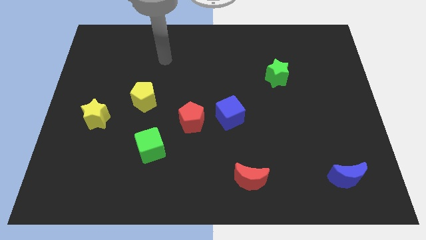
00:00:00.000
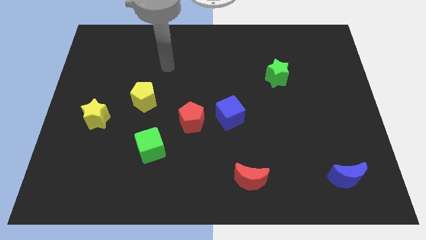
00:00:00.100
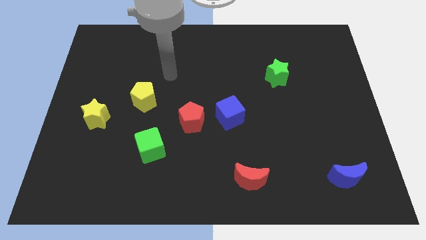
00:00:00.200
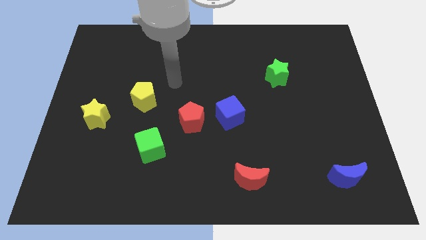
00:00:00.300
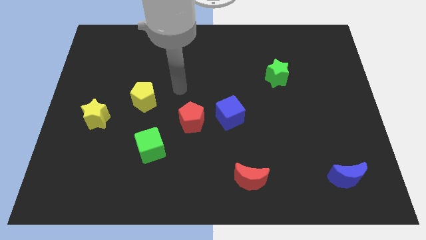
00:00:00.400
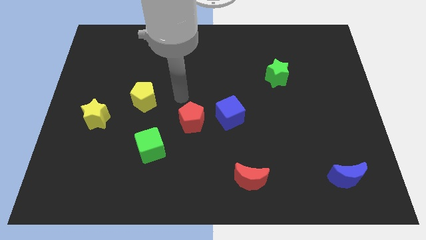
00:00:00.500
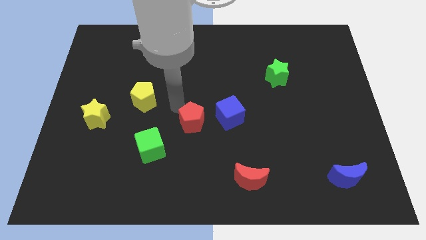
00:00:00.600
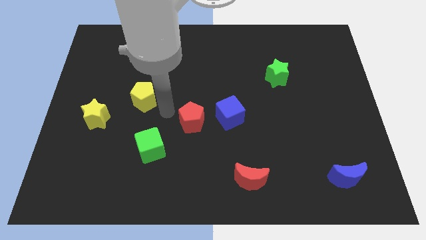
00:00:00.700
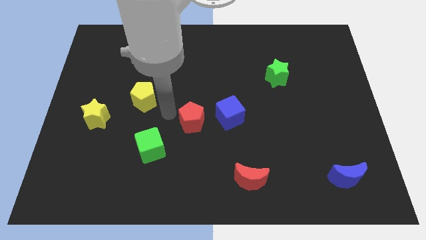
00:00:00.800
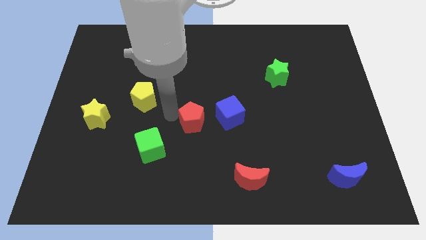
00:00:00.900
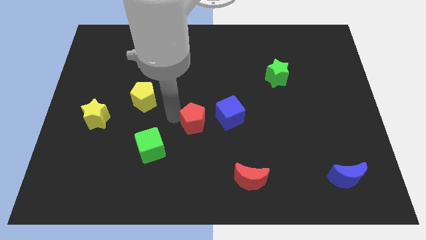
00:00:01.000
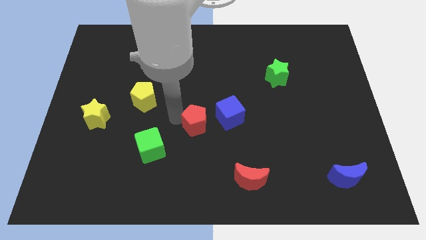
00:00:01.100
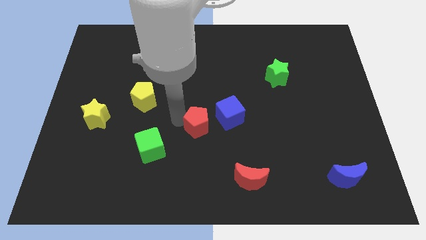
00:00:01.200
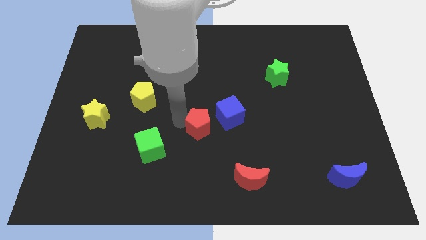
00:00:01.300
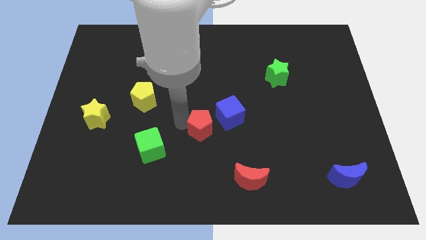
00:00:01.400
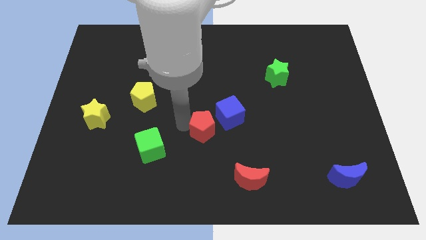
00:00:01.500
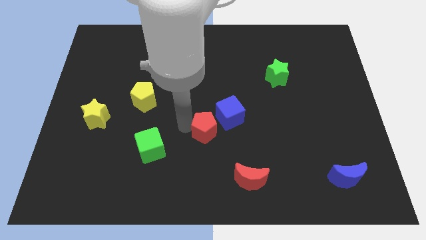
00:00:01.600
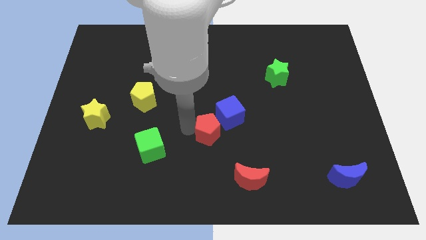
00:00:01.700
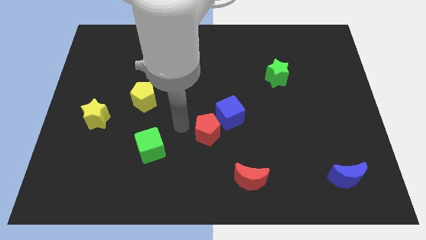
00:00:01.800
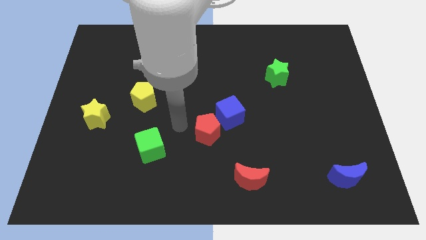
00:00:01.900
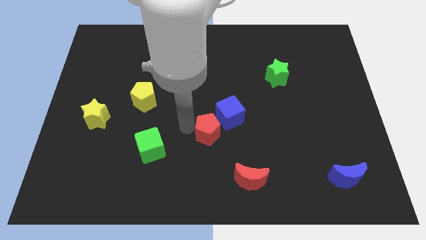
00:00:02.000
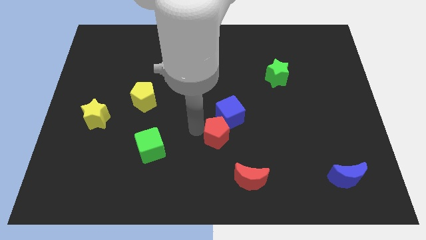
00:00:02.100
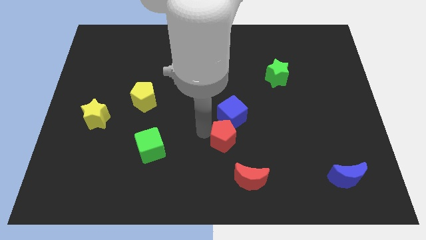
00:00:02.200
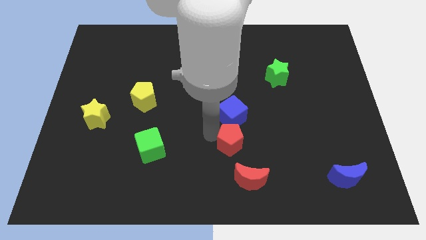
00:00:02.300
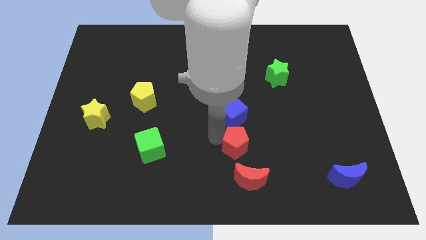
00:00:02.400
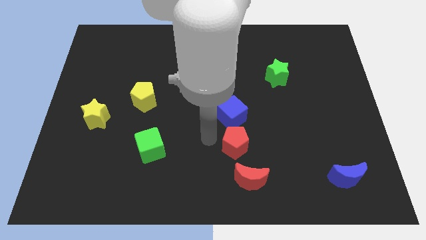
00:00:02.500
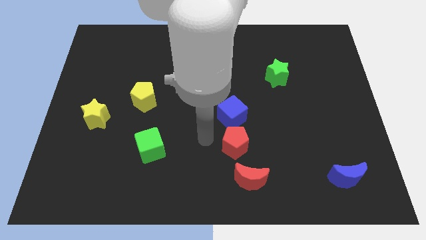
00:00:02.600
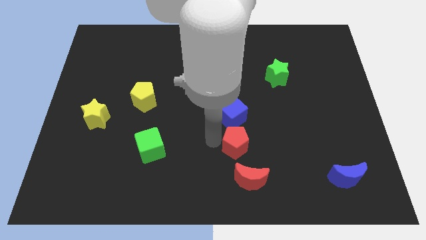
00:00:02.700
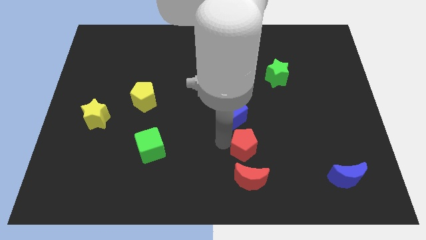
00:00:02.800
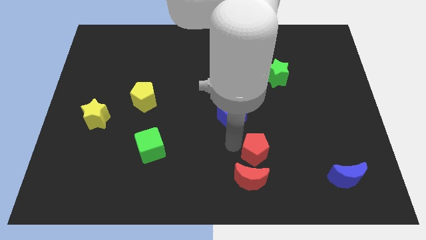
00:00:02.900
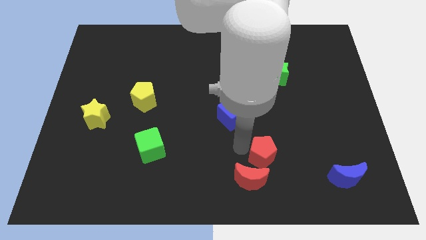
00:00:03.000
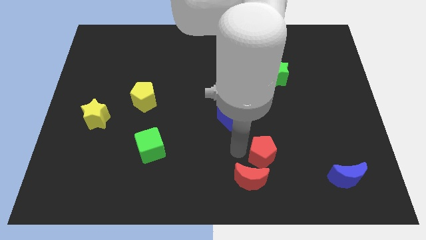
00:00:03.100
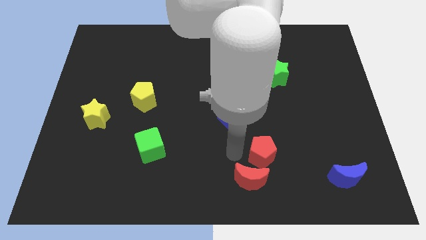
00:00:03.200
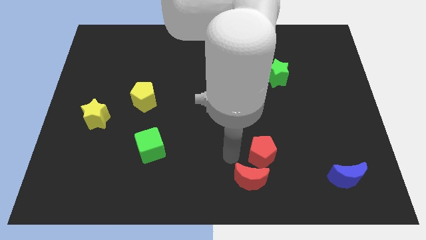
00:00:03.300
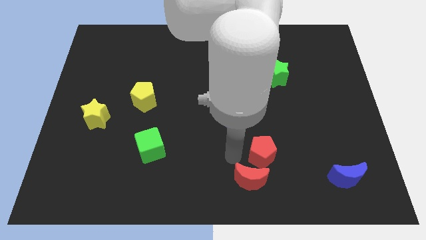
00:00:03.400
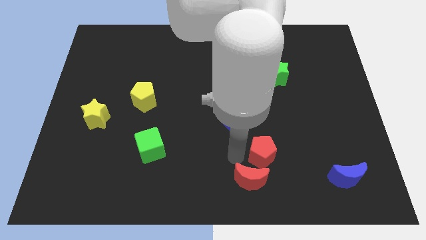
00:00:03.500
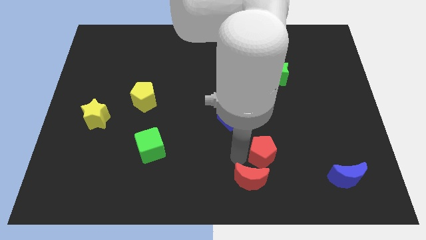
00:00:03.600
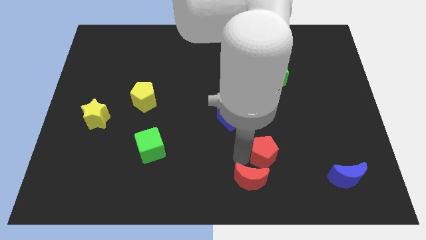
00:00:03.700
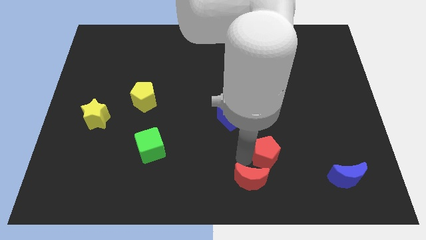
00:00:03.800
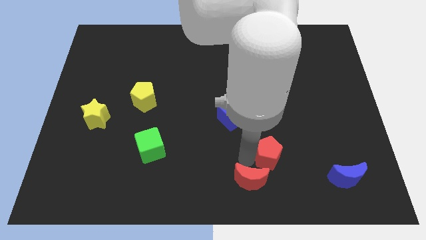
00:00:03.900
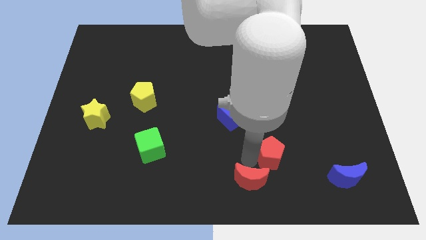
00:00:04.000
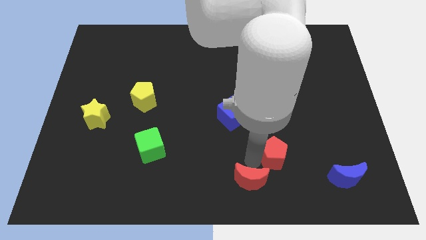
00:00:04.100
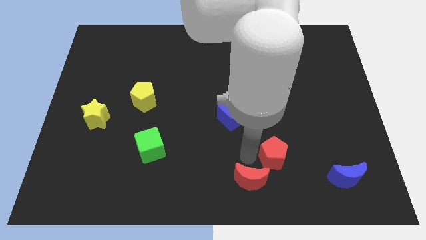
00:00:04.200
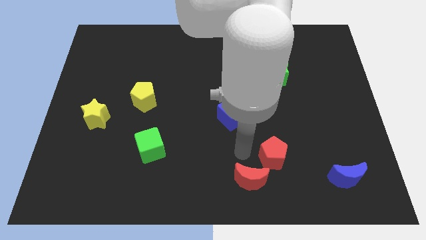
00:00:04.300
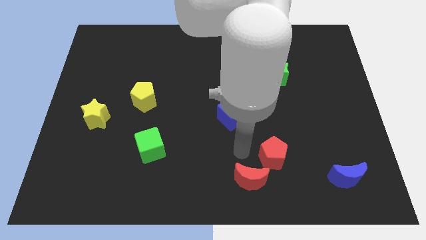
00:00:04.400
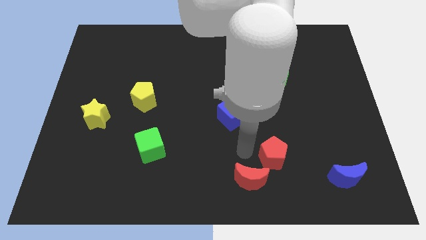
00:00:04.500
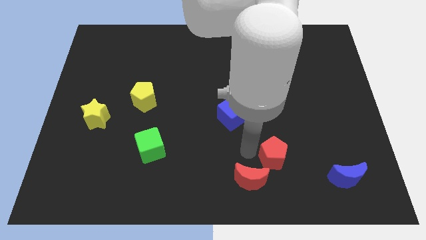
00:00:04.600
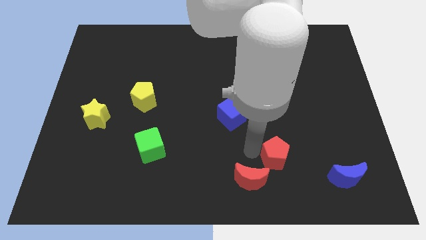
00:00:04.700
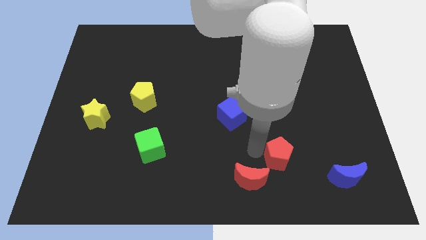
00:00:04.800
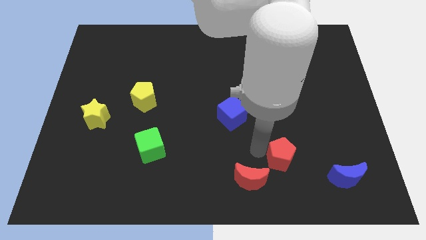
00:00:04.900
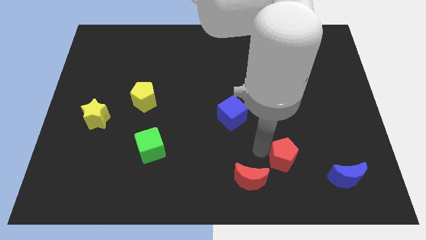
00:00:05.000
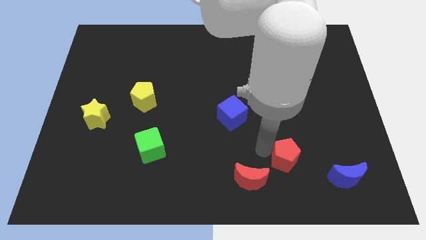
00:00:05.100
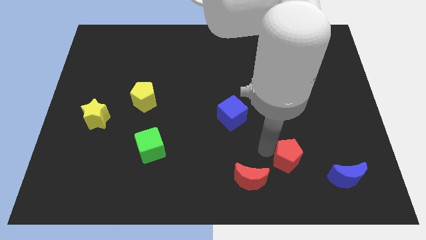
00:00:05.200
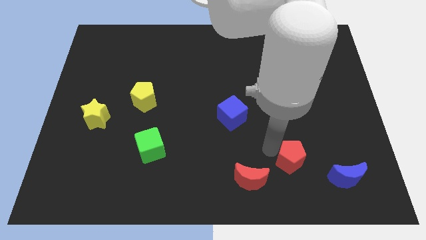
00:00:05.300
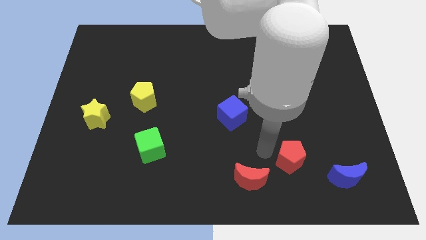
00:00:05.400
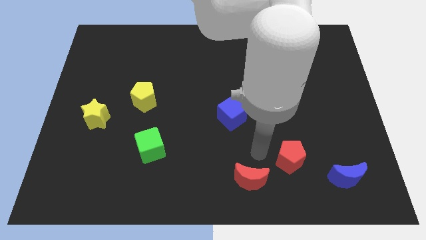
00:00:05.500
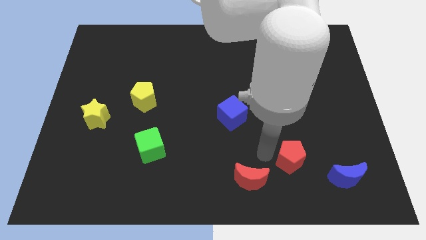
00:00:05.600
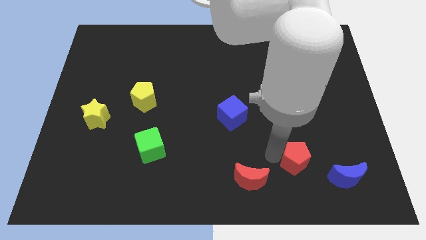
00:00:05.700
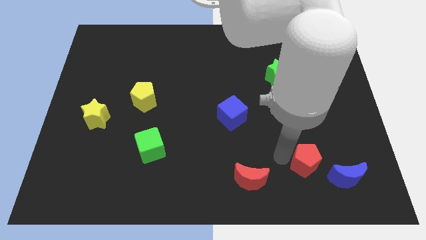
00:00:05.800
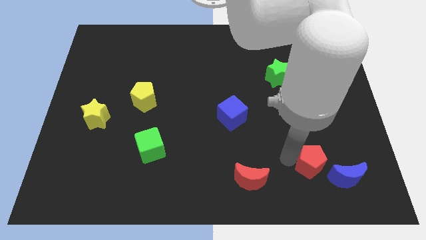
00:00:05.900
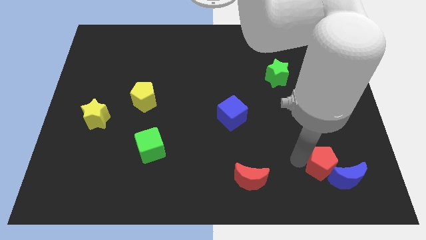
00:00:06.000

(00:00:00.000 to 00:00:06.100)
push the red pentagon towards the blue moon
